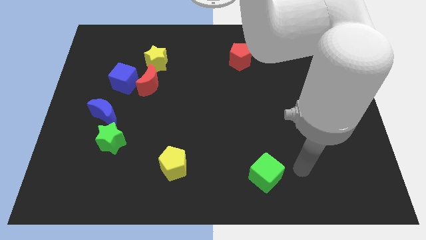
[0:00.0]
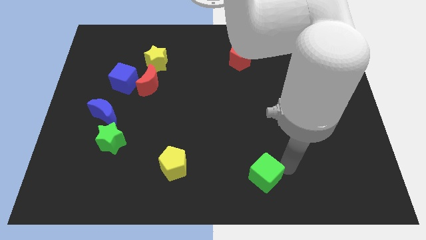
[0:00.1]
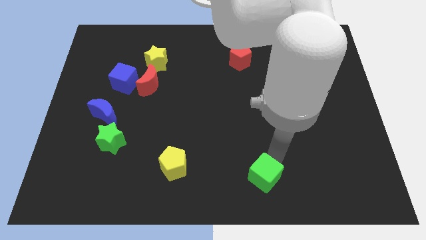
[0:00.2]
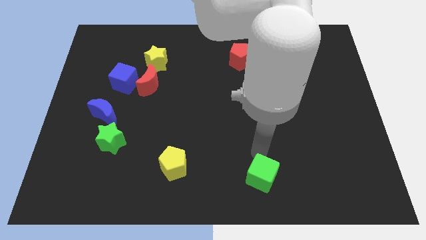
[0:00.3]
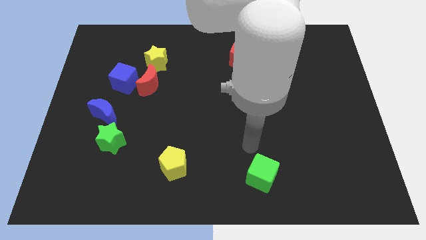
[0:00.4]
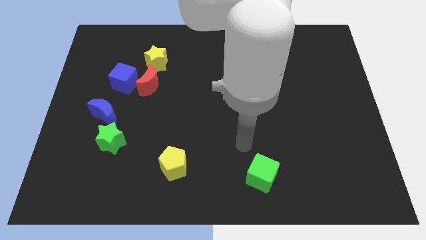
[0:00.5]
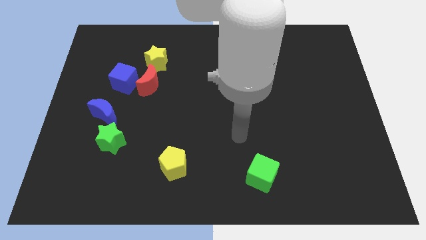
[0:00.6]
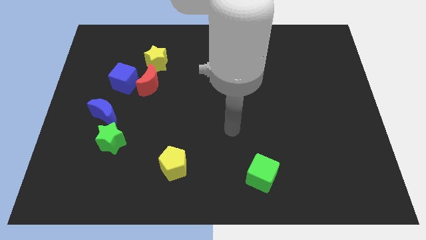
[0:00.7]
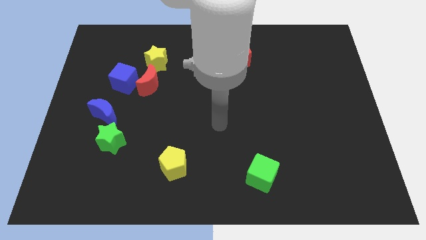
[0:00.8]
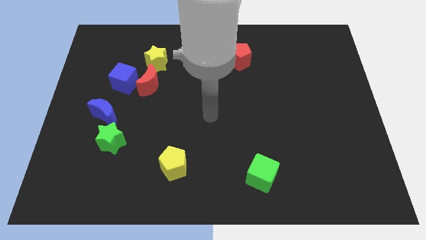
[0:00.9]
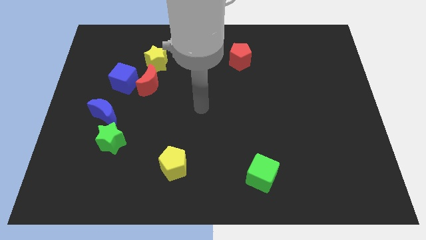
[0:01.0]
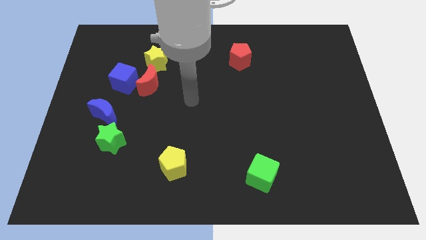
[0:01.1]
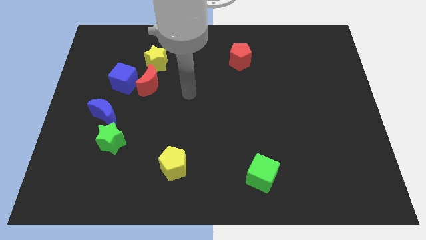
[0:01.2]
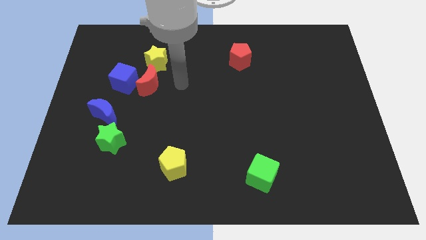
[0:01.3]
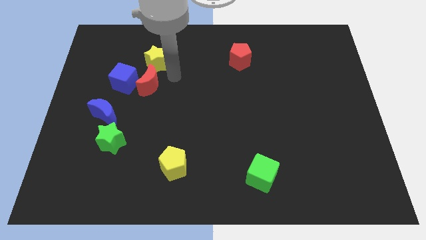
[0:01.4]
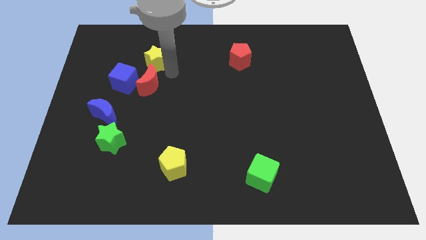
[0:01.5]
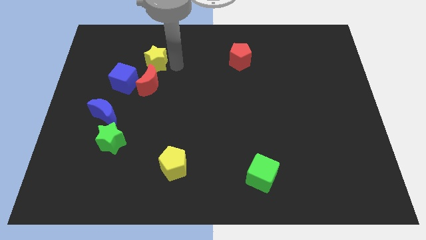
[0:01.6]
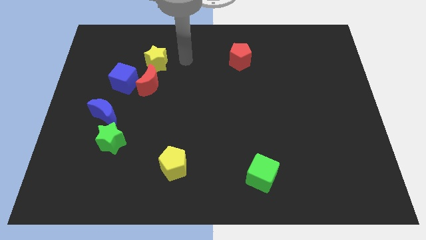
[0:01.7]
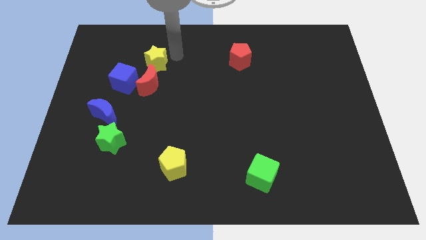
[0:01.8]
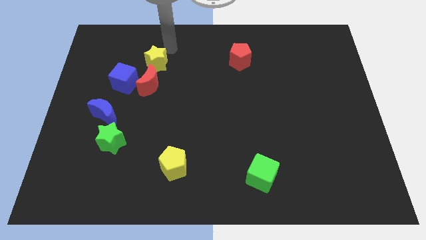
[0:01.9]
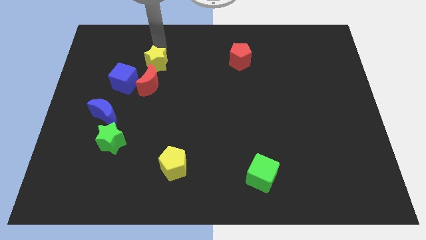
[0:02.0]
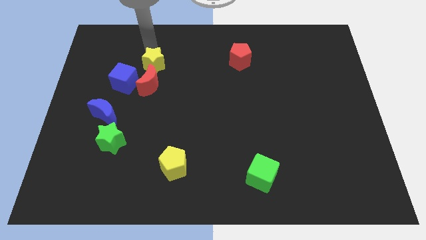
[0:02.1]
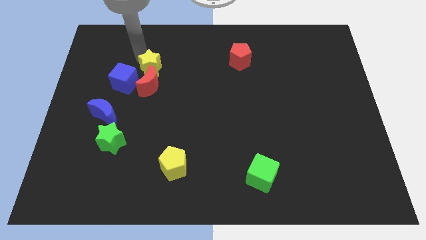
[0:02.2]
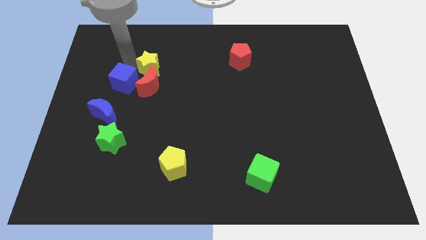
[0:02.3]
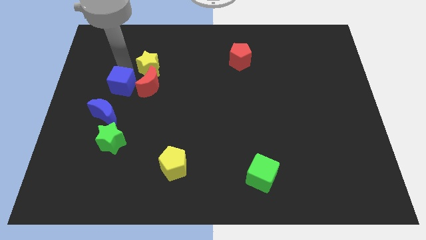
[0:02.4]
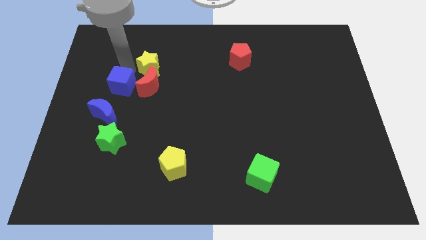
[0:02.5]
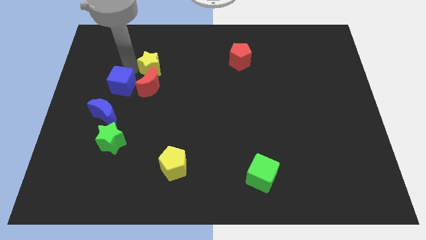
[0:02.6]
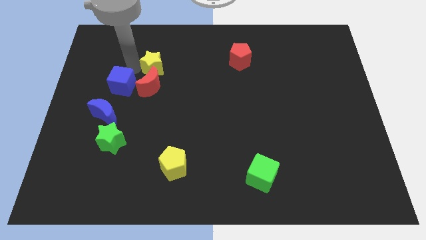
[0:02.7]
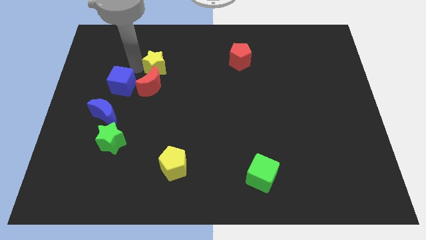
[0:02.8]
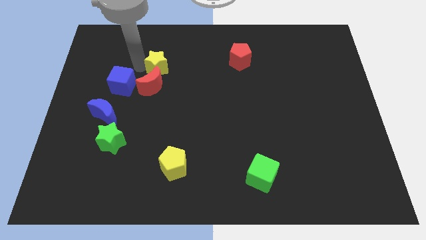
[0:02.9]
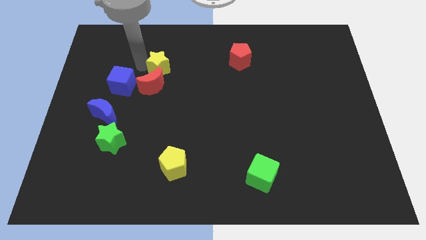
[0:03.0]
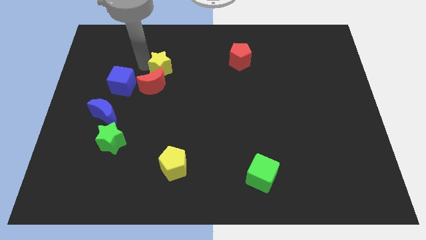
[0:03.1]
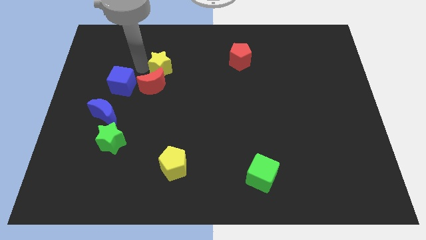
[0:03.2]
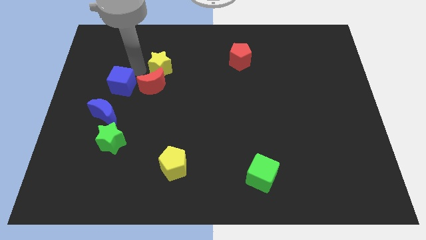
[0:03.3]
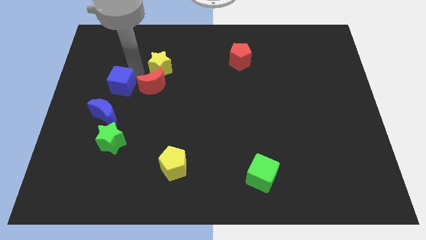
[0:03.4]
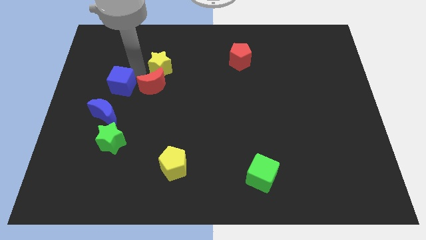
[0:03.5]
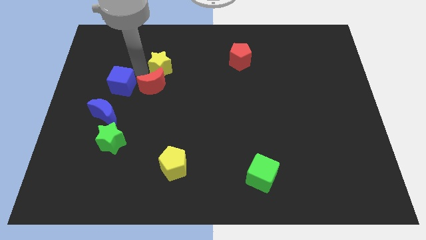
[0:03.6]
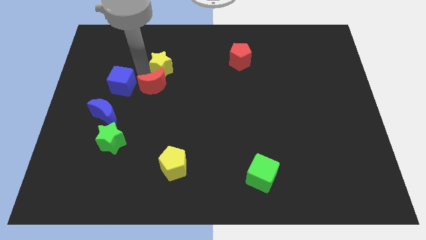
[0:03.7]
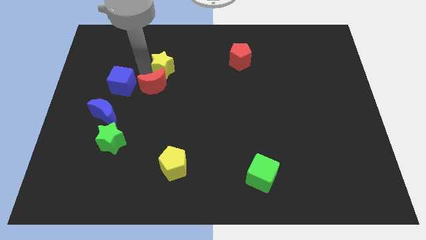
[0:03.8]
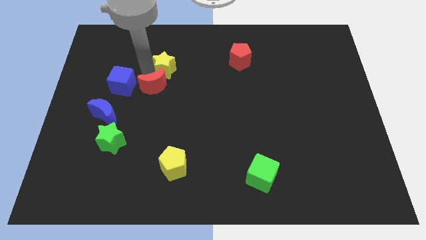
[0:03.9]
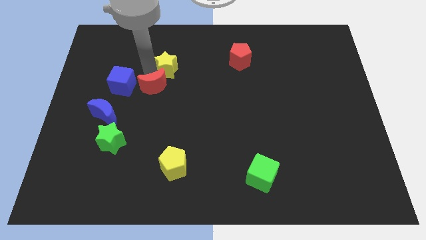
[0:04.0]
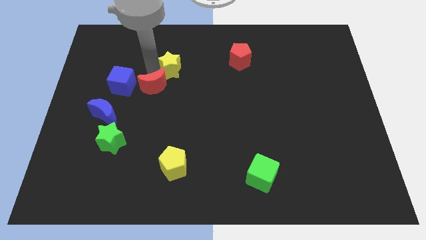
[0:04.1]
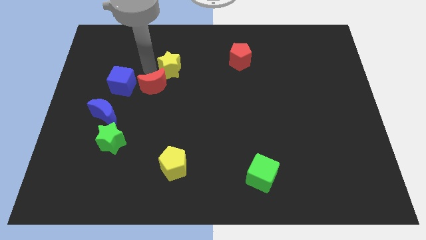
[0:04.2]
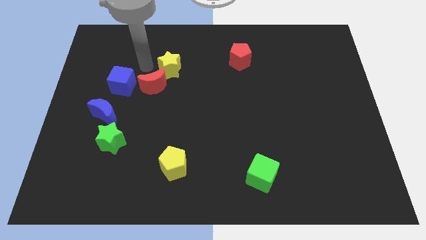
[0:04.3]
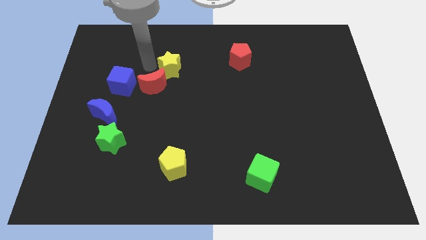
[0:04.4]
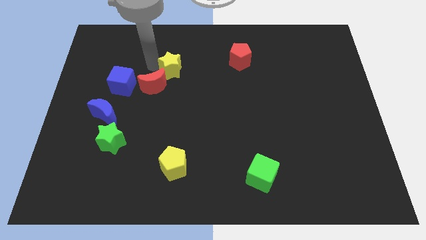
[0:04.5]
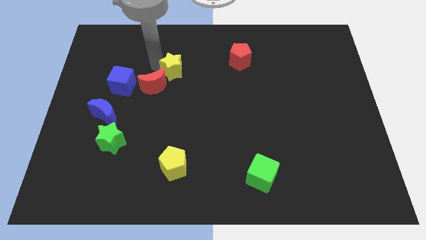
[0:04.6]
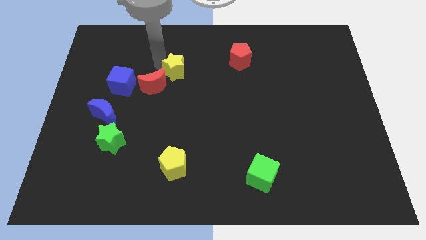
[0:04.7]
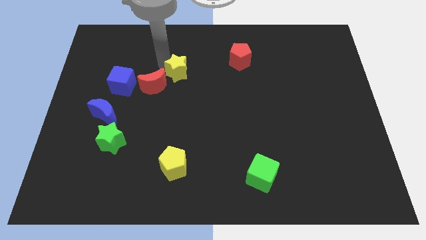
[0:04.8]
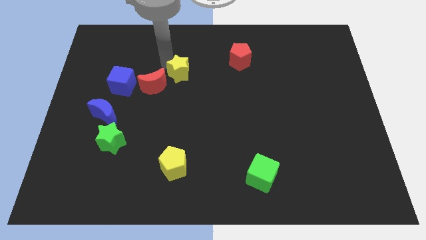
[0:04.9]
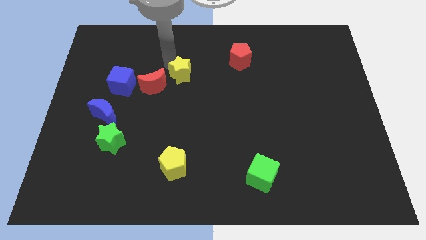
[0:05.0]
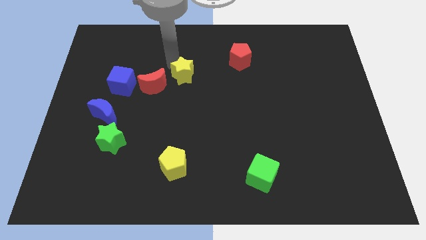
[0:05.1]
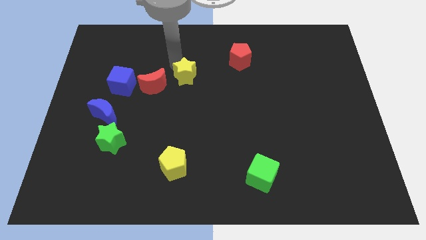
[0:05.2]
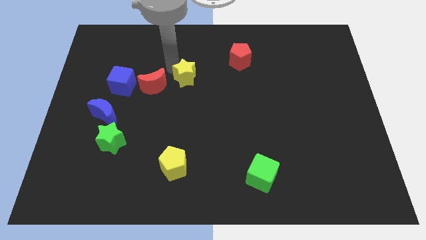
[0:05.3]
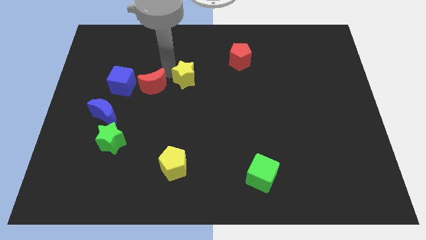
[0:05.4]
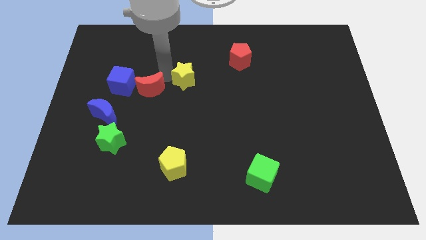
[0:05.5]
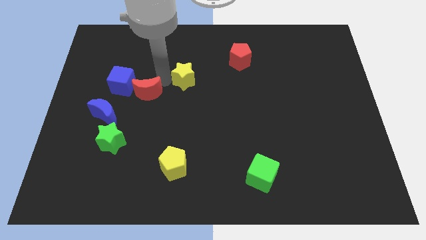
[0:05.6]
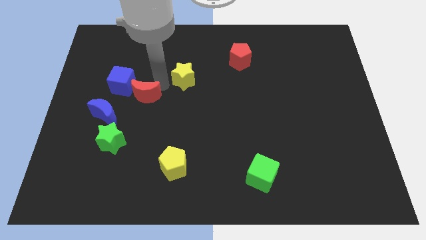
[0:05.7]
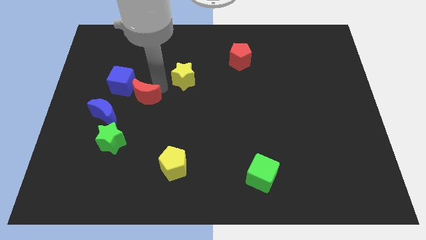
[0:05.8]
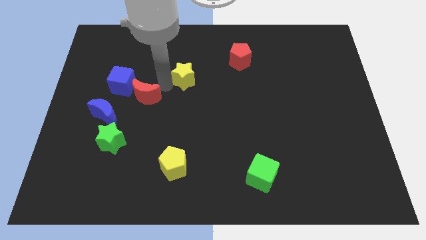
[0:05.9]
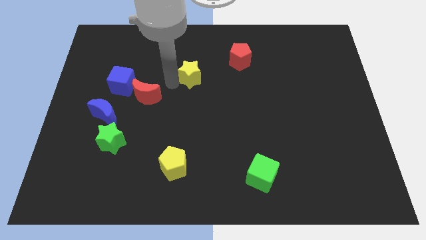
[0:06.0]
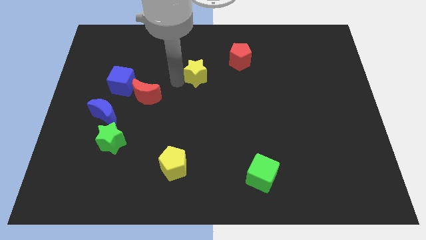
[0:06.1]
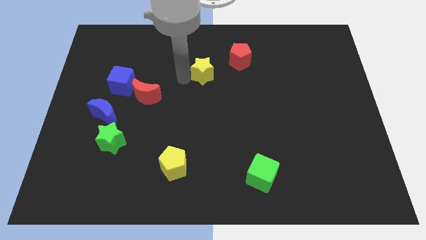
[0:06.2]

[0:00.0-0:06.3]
slide the yellow star diagonally down and to the left of the red pentagon

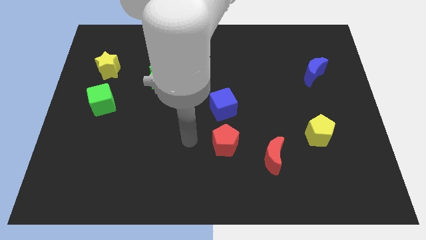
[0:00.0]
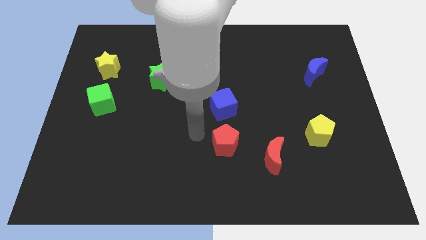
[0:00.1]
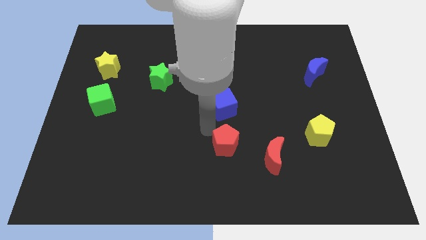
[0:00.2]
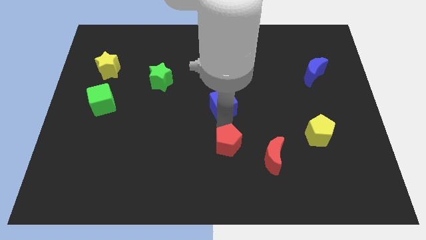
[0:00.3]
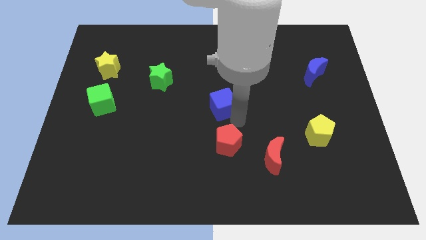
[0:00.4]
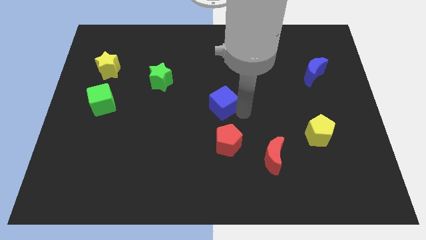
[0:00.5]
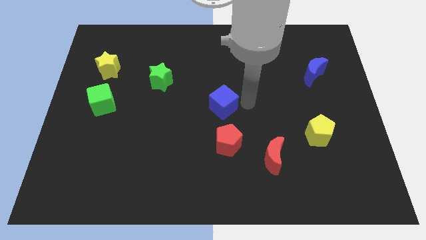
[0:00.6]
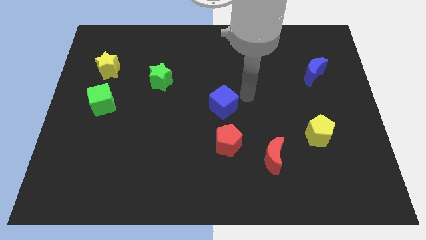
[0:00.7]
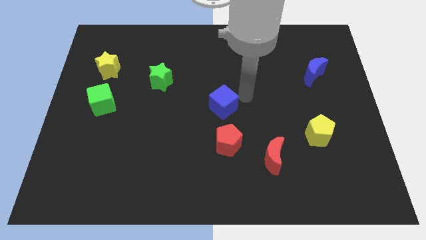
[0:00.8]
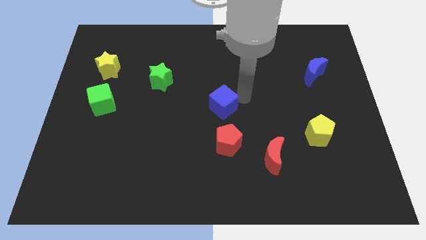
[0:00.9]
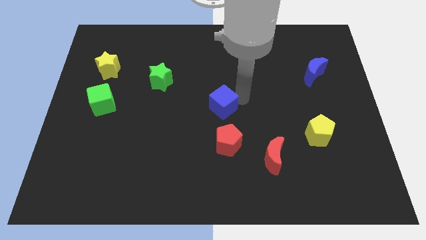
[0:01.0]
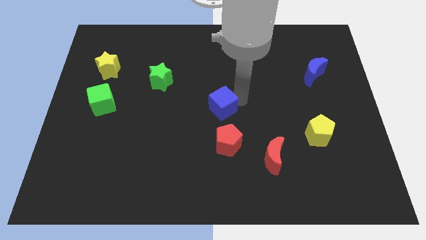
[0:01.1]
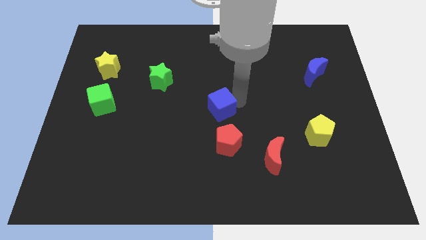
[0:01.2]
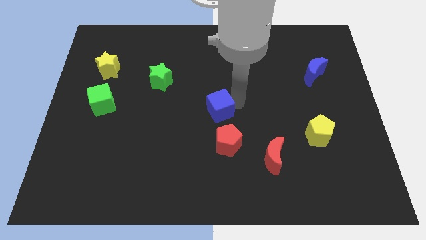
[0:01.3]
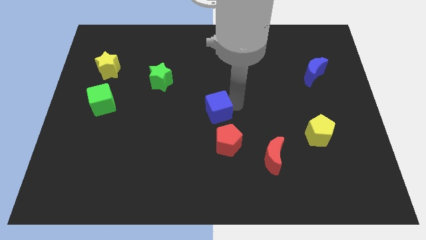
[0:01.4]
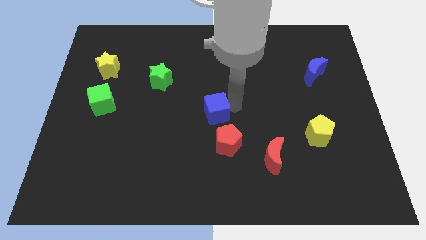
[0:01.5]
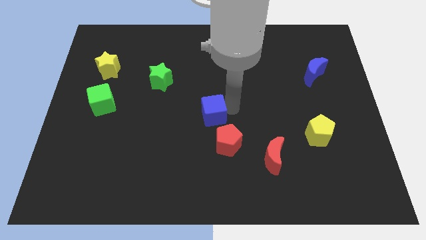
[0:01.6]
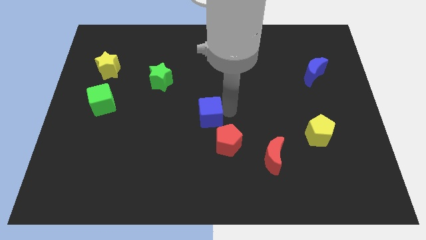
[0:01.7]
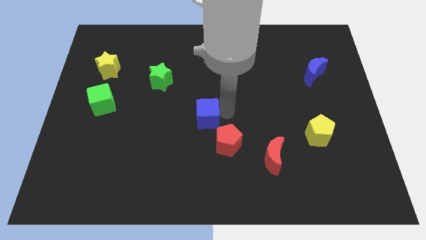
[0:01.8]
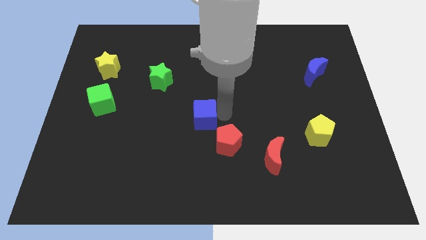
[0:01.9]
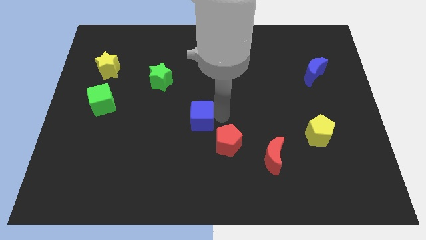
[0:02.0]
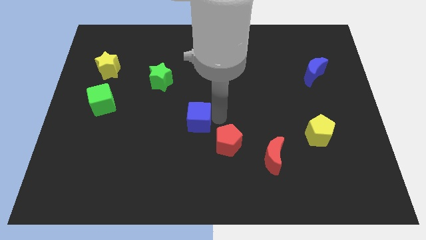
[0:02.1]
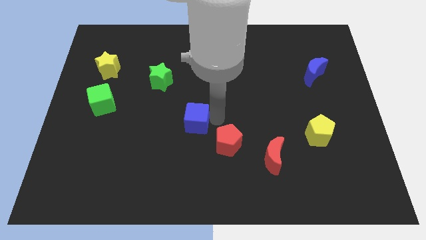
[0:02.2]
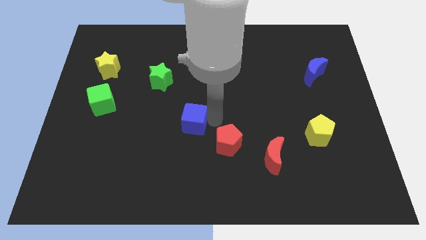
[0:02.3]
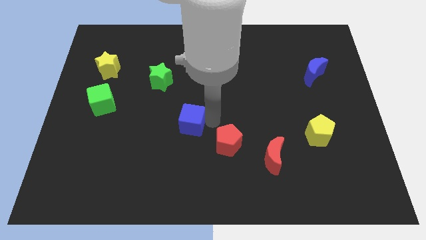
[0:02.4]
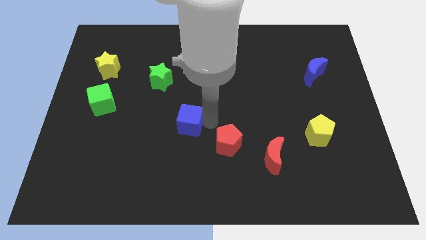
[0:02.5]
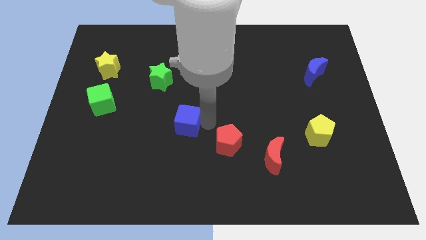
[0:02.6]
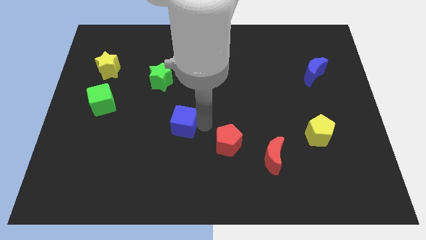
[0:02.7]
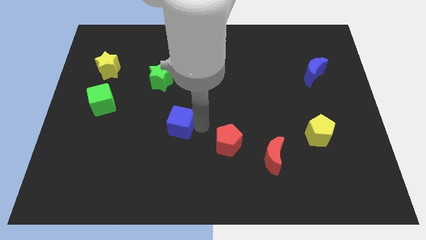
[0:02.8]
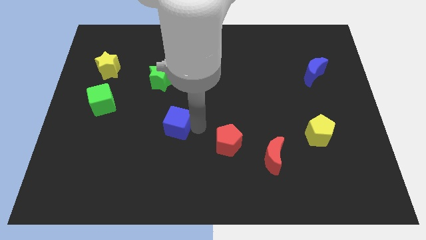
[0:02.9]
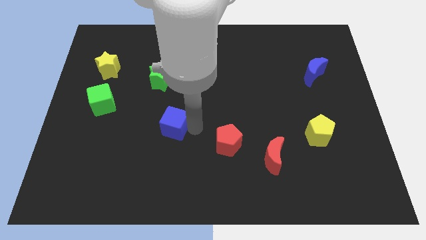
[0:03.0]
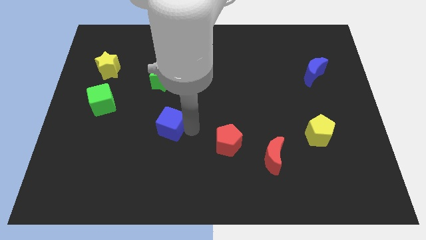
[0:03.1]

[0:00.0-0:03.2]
move the blue cube below the green star
